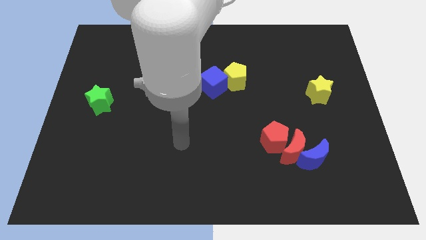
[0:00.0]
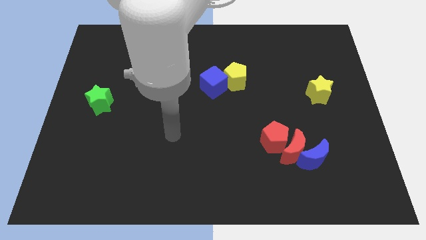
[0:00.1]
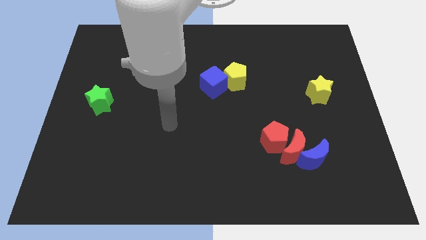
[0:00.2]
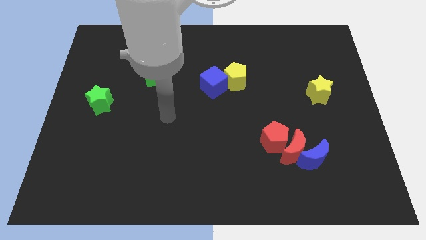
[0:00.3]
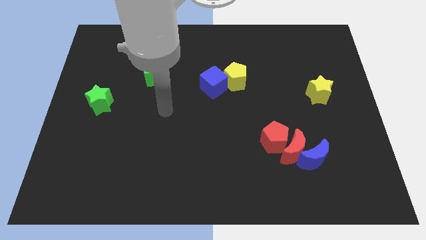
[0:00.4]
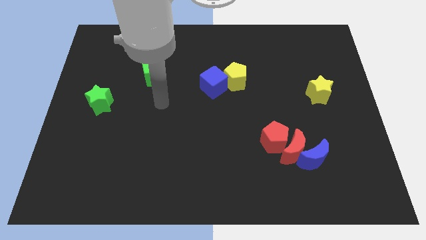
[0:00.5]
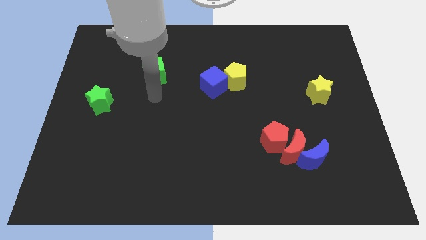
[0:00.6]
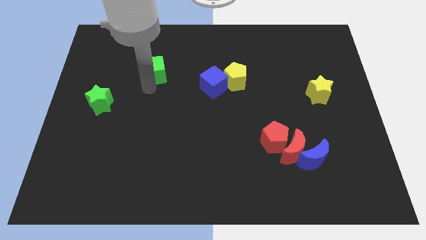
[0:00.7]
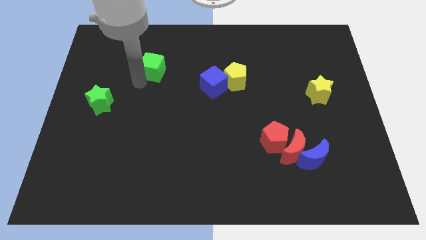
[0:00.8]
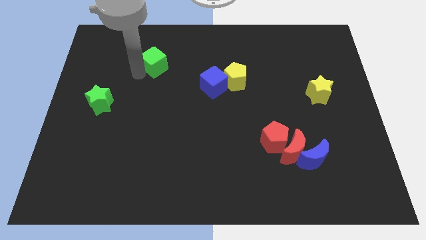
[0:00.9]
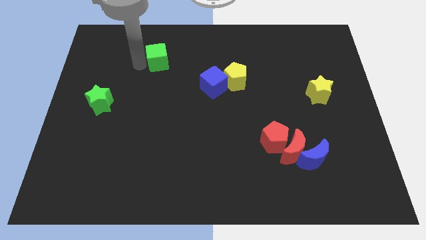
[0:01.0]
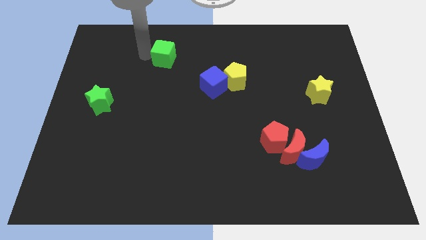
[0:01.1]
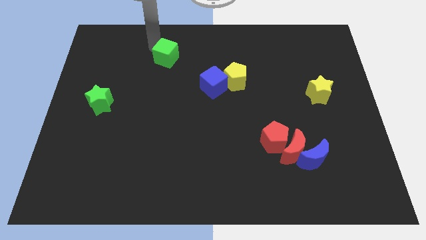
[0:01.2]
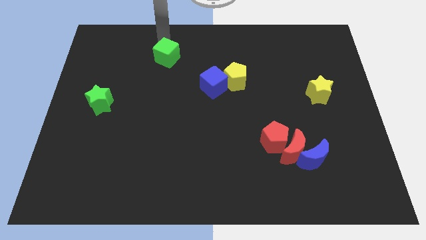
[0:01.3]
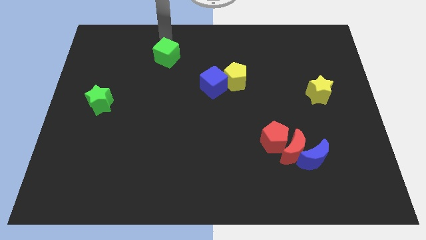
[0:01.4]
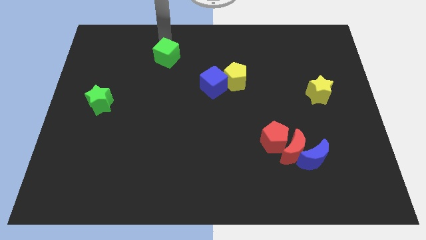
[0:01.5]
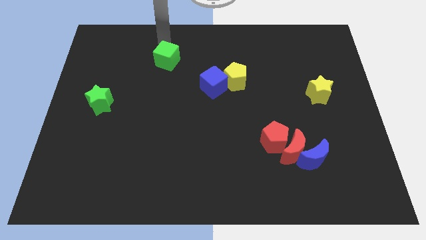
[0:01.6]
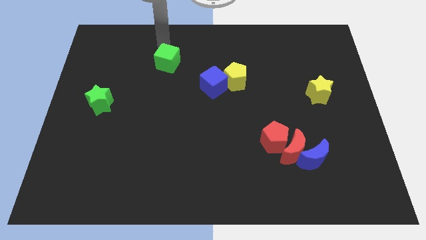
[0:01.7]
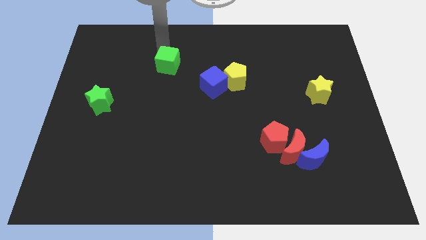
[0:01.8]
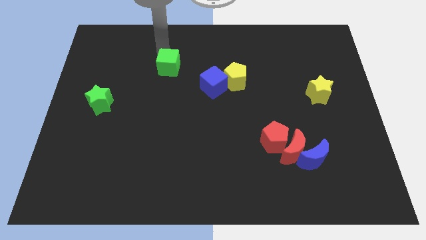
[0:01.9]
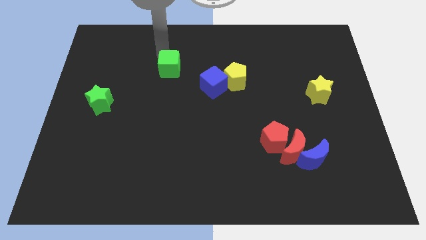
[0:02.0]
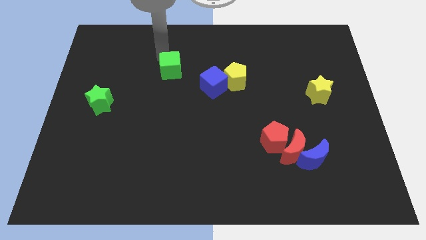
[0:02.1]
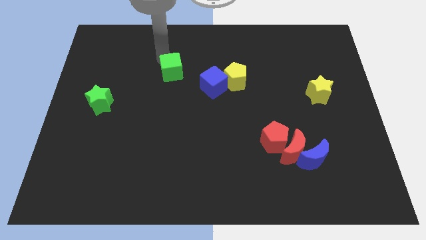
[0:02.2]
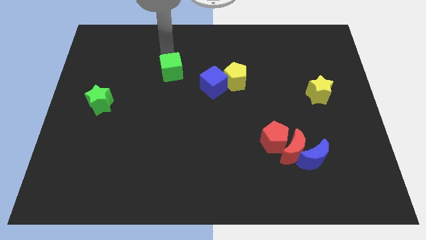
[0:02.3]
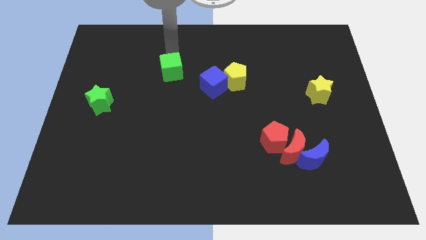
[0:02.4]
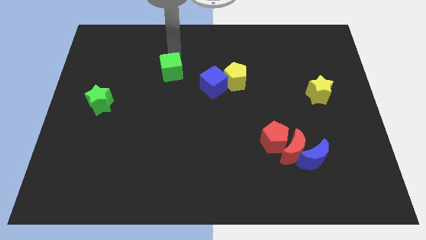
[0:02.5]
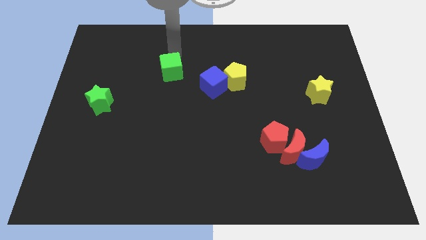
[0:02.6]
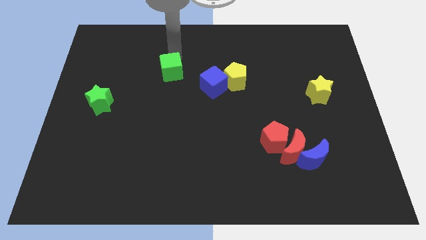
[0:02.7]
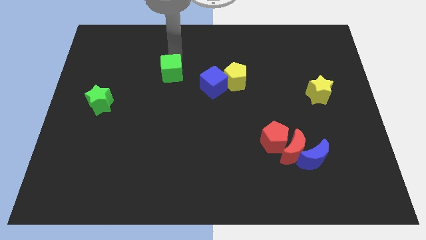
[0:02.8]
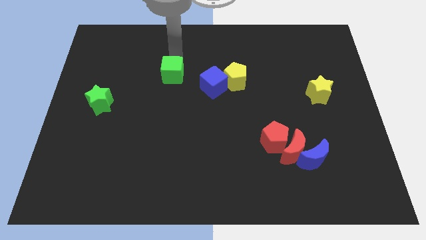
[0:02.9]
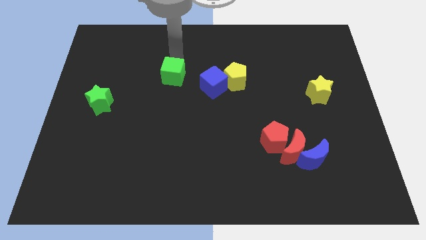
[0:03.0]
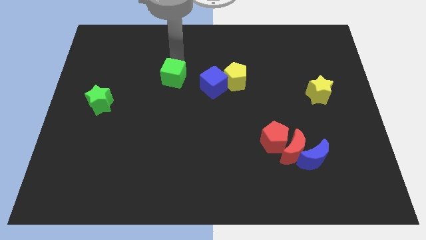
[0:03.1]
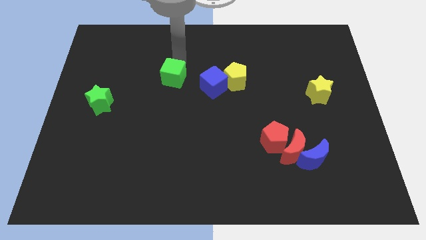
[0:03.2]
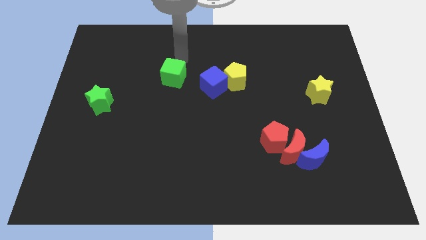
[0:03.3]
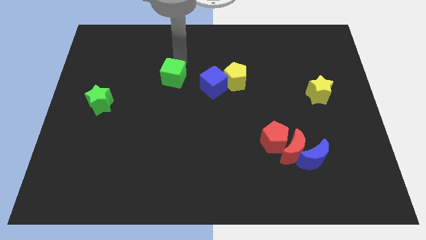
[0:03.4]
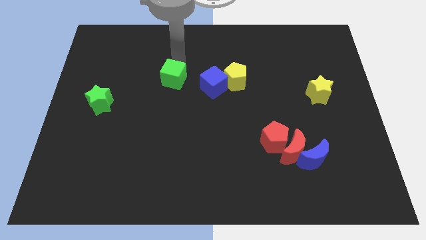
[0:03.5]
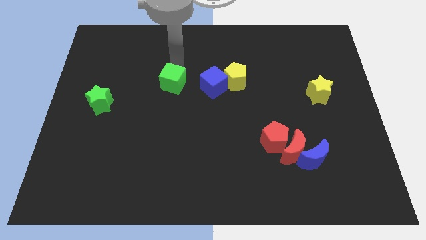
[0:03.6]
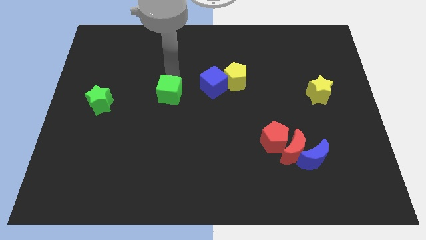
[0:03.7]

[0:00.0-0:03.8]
slide the green cube slightly down and to the right

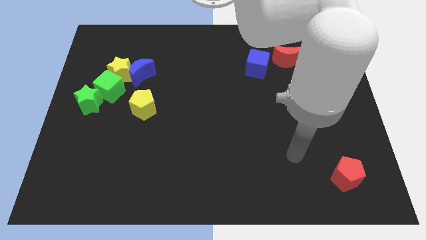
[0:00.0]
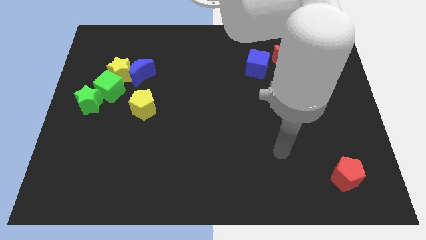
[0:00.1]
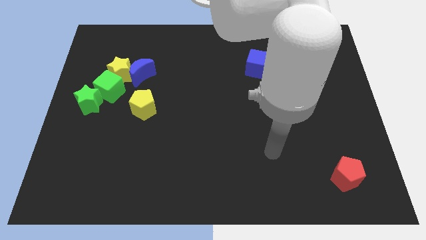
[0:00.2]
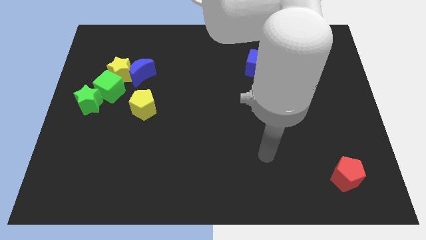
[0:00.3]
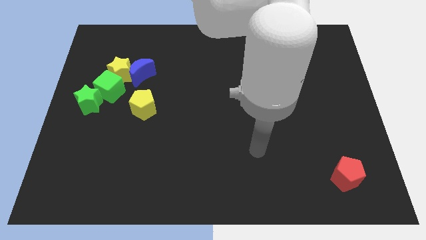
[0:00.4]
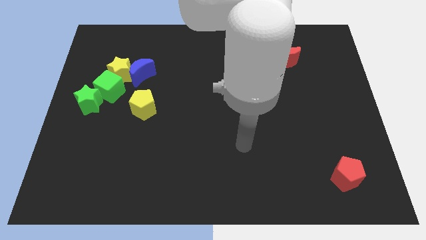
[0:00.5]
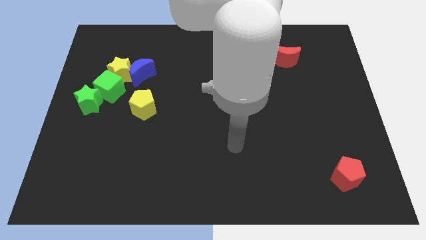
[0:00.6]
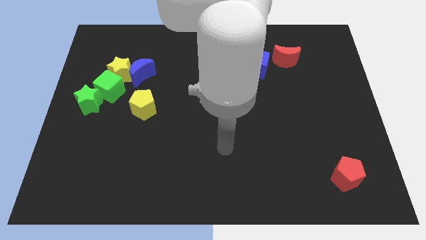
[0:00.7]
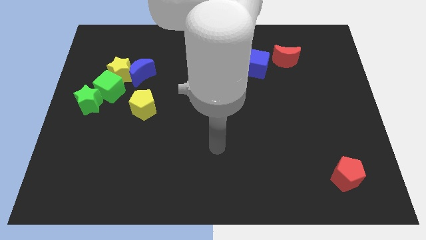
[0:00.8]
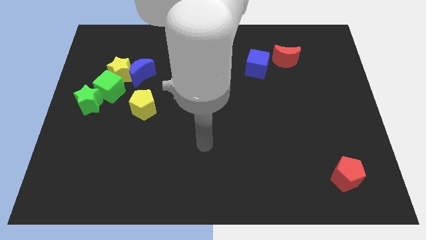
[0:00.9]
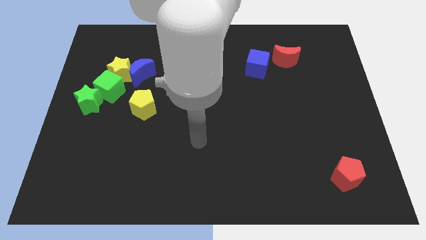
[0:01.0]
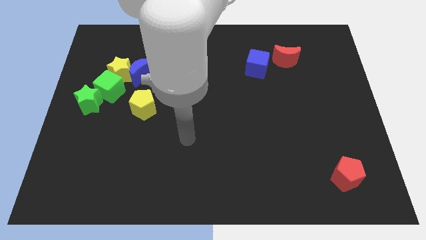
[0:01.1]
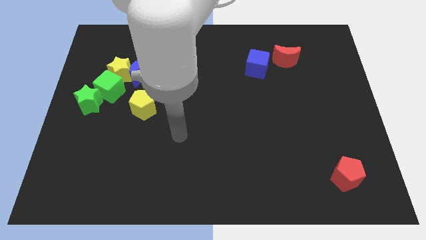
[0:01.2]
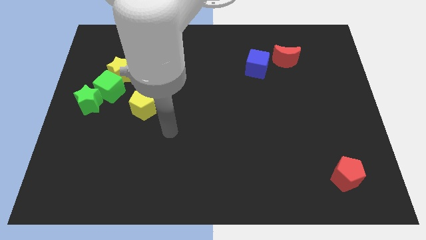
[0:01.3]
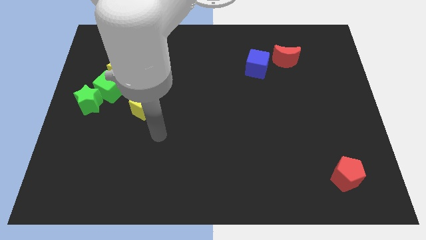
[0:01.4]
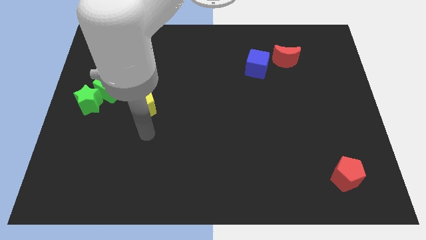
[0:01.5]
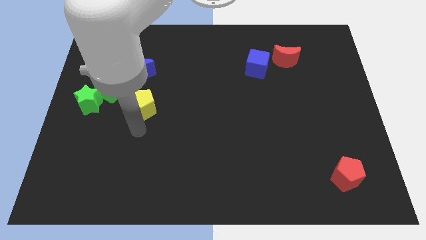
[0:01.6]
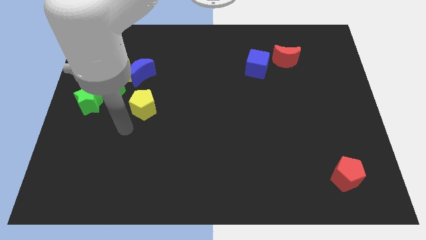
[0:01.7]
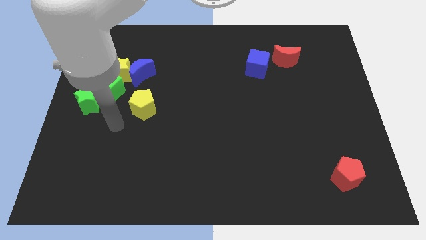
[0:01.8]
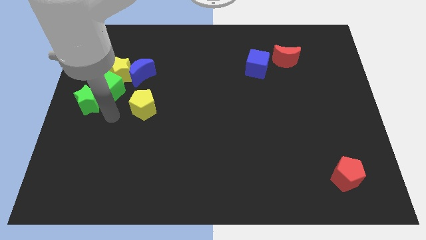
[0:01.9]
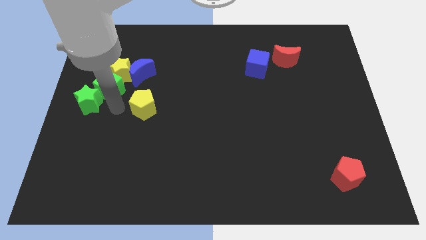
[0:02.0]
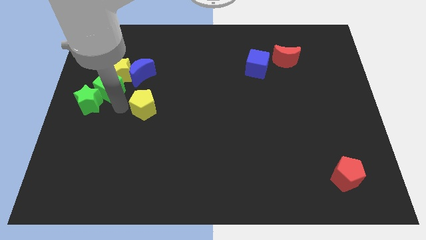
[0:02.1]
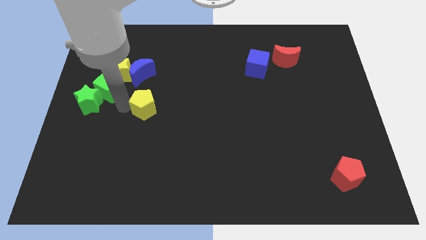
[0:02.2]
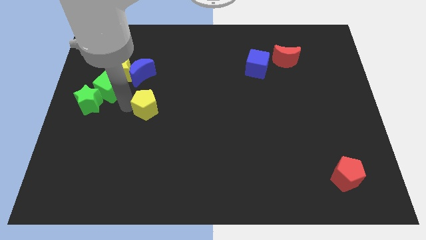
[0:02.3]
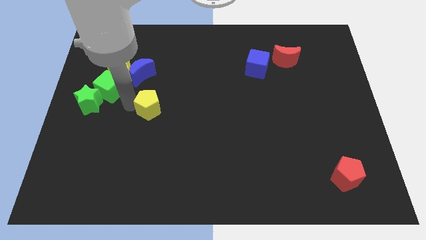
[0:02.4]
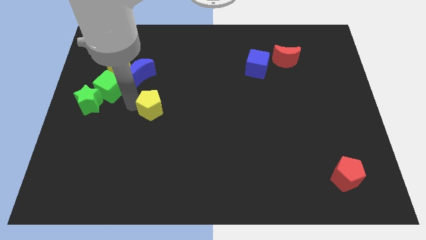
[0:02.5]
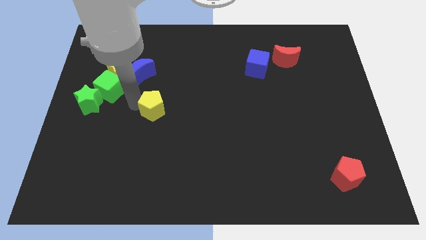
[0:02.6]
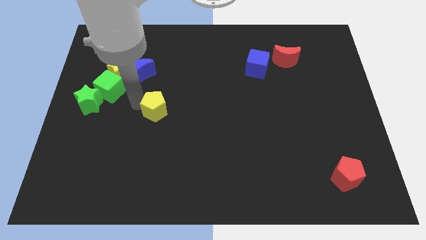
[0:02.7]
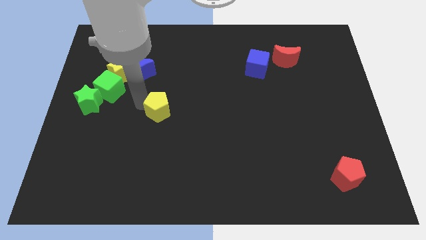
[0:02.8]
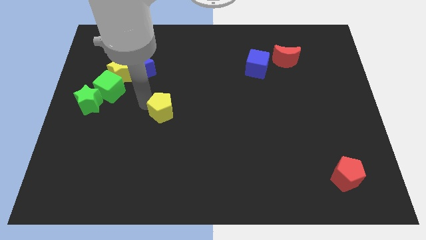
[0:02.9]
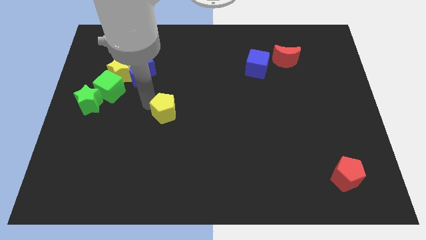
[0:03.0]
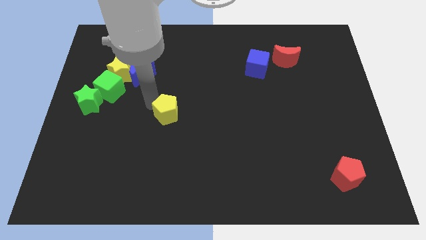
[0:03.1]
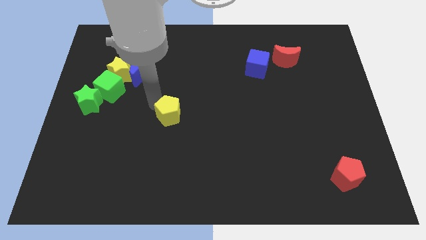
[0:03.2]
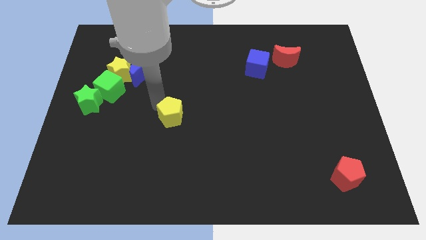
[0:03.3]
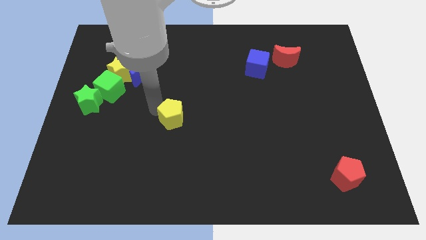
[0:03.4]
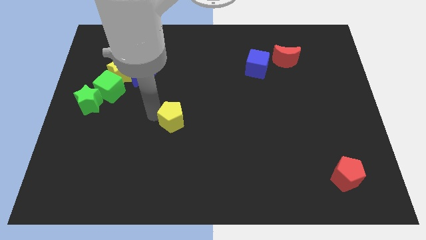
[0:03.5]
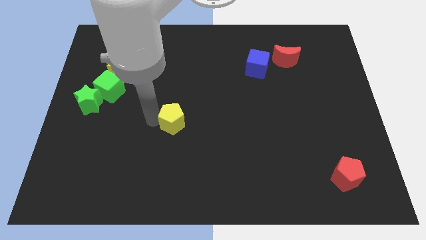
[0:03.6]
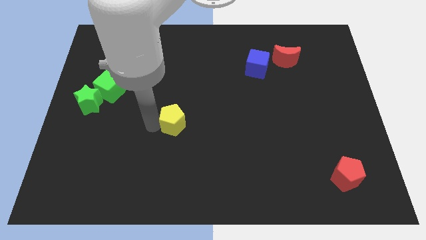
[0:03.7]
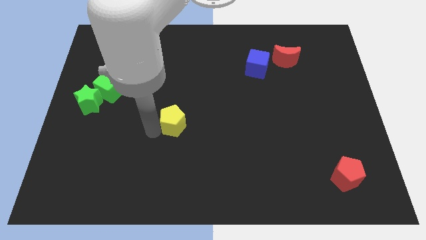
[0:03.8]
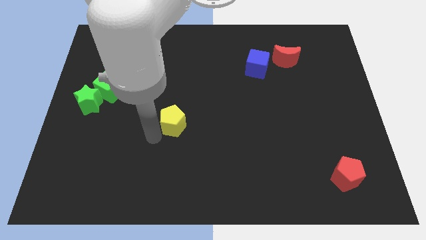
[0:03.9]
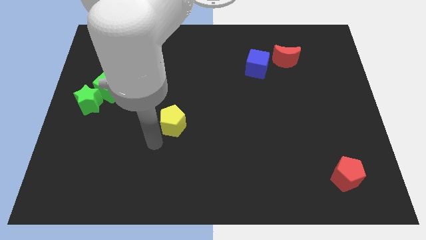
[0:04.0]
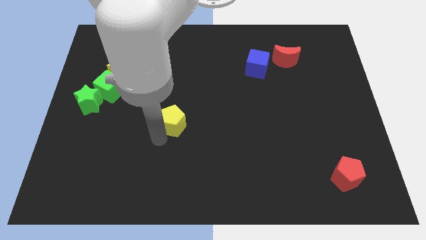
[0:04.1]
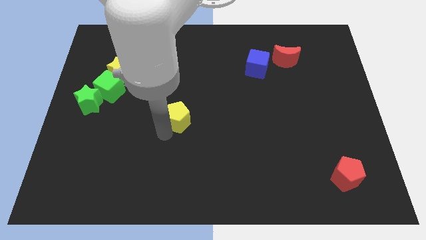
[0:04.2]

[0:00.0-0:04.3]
slightly push the yellow pentagon to the right
